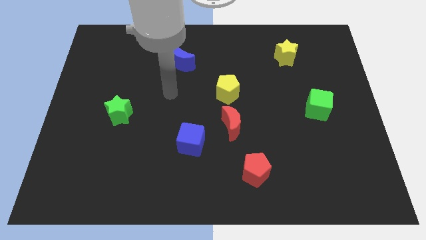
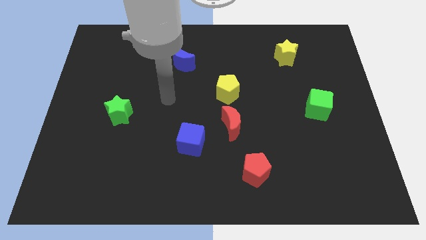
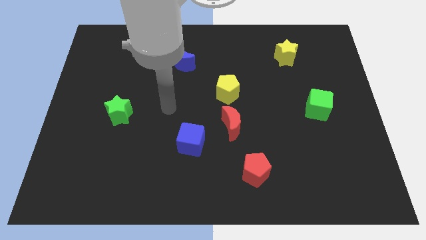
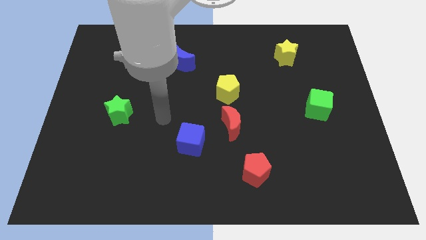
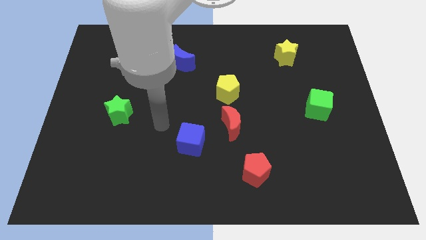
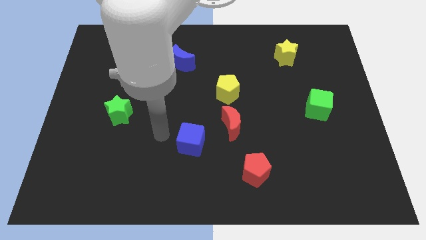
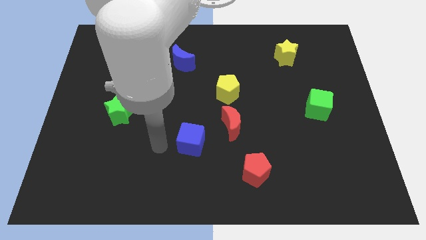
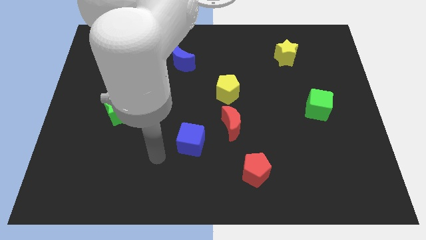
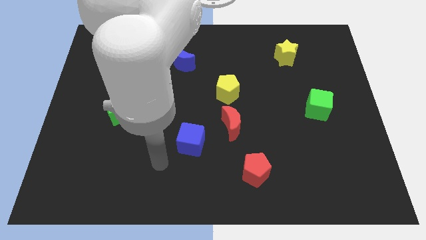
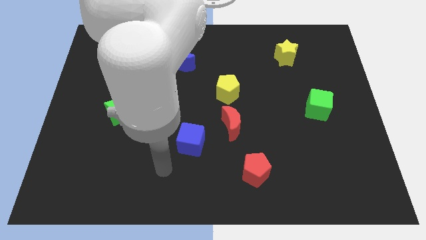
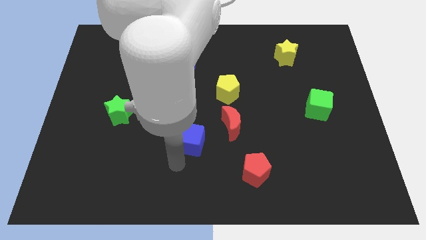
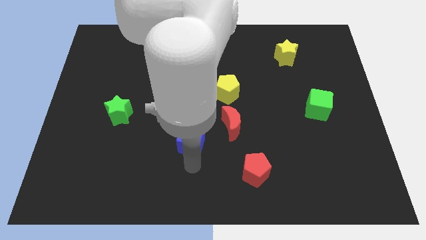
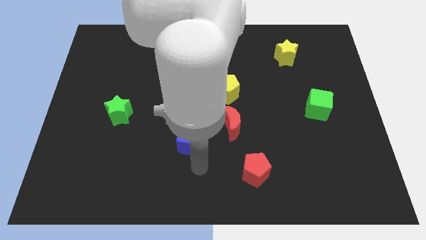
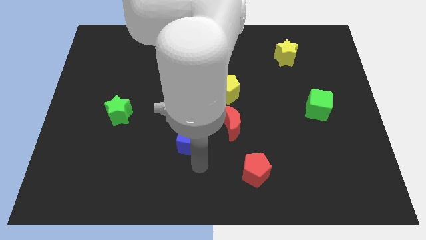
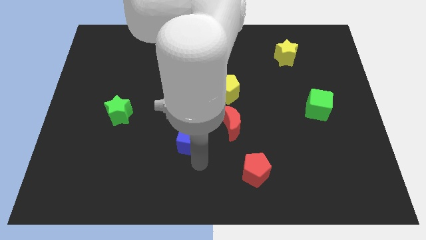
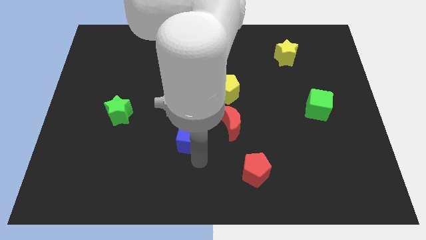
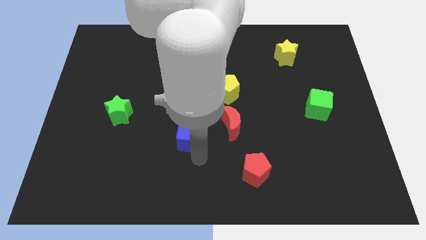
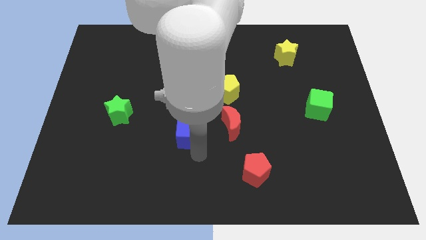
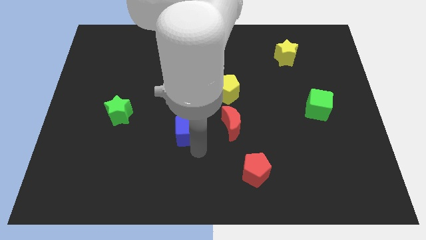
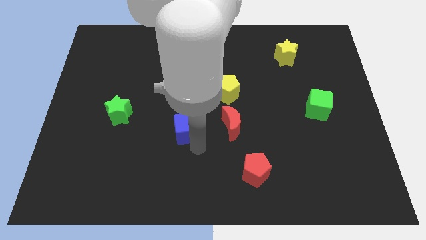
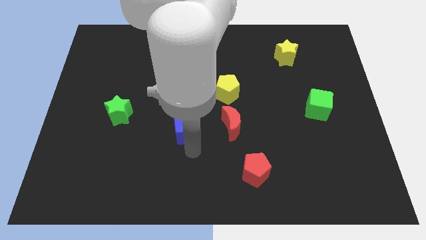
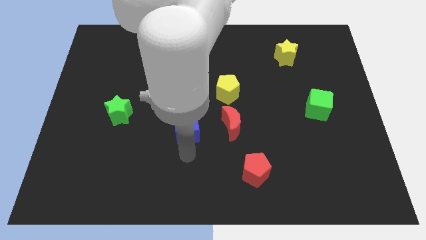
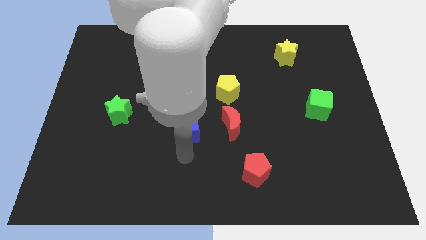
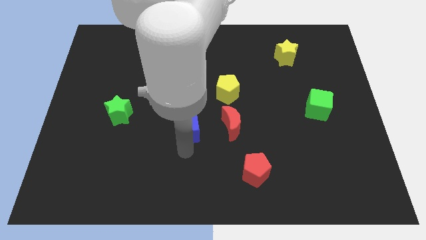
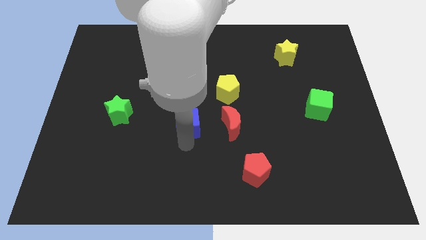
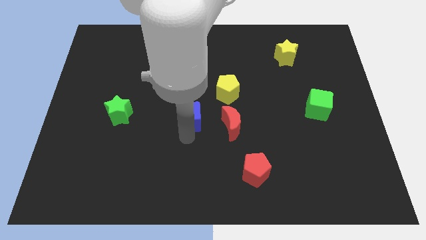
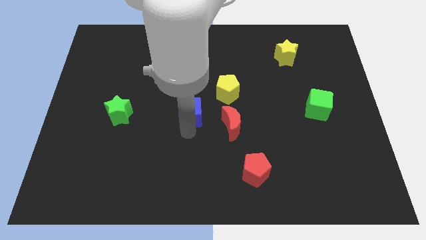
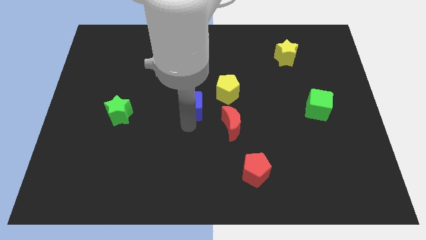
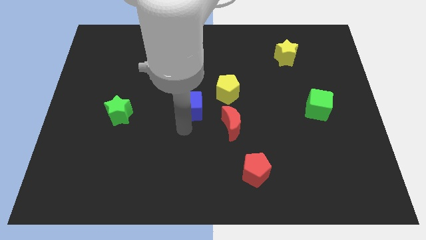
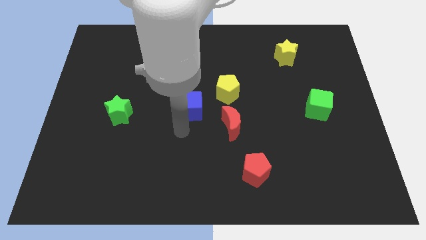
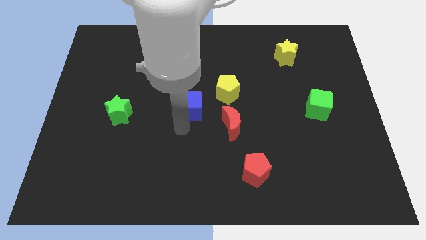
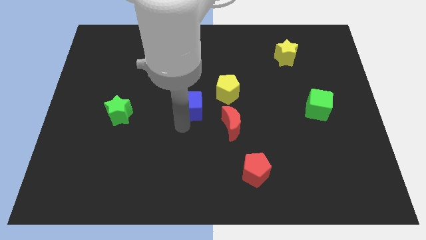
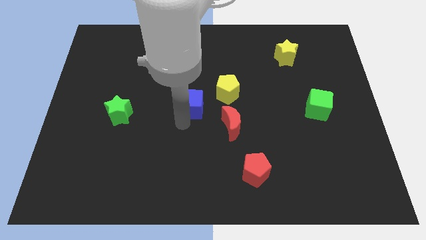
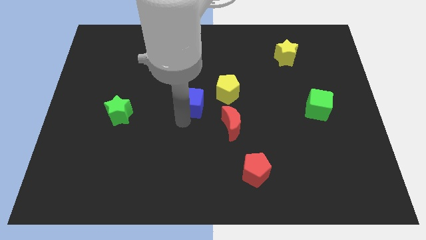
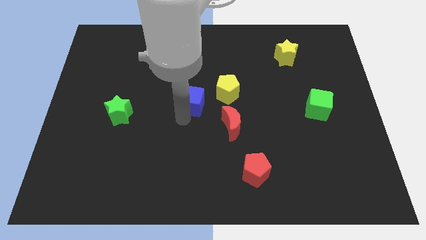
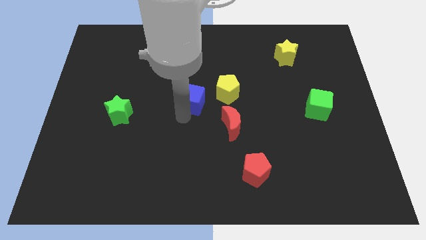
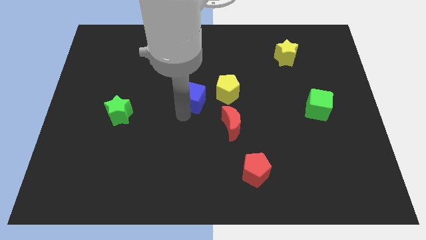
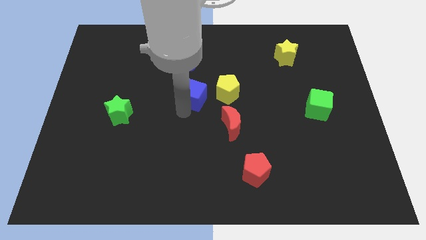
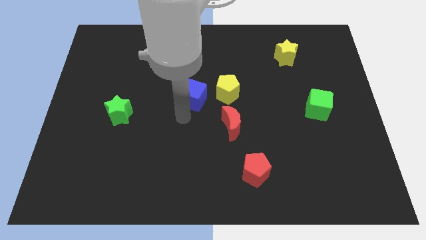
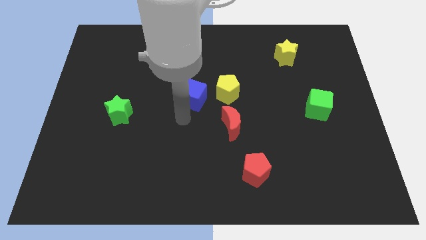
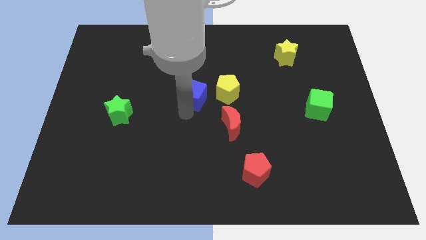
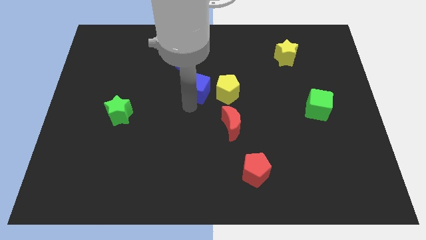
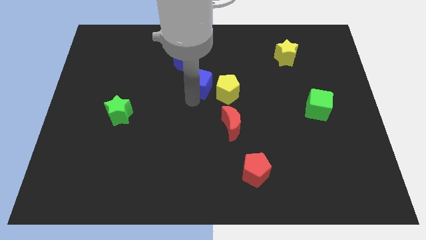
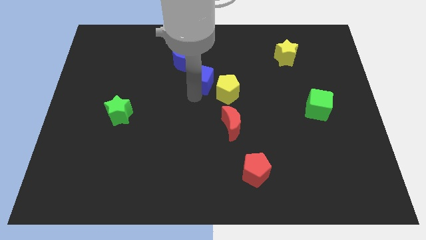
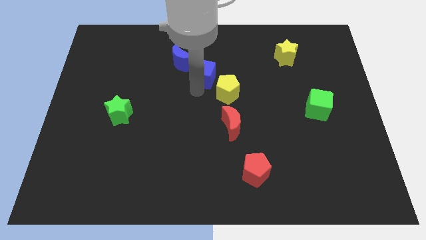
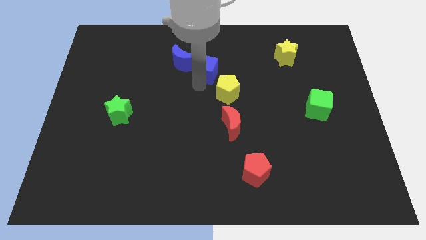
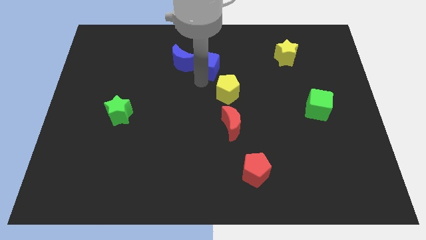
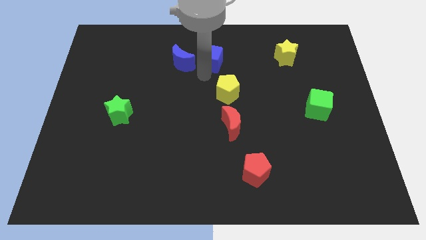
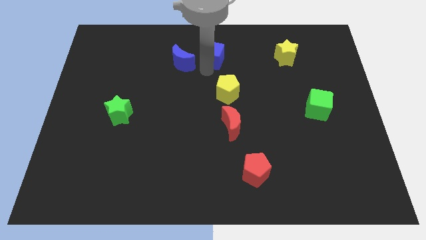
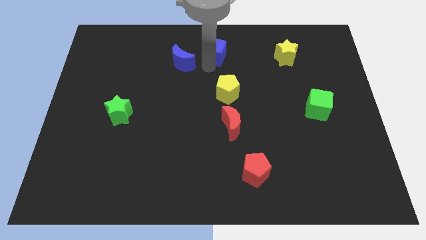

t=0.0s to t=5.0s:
move the blue cube to the towards your base

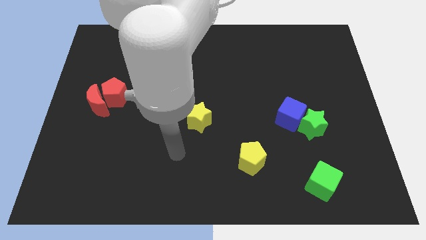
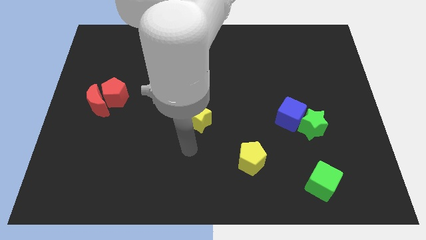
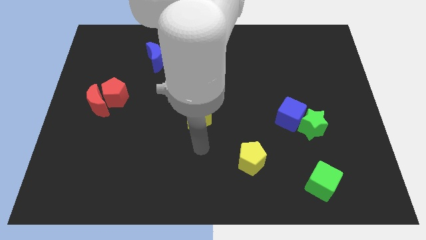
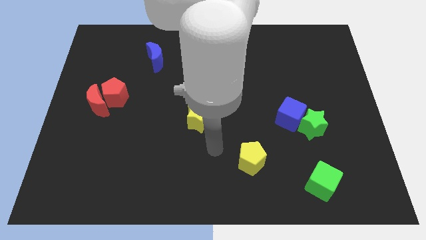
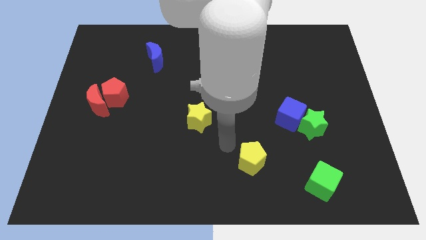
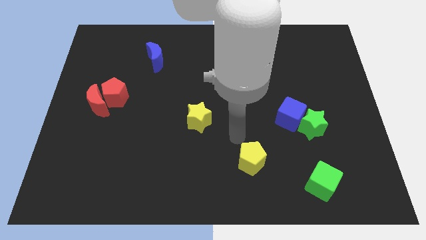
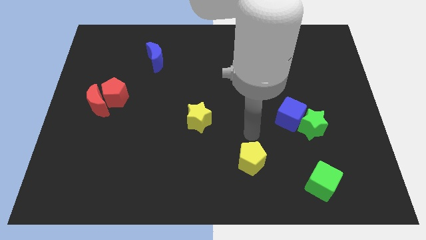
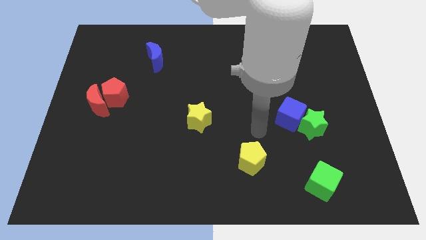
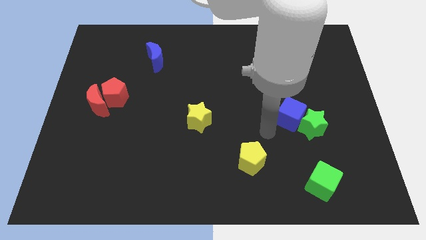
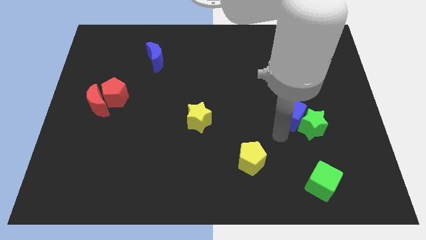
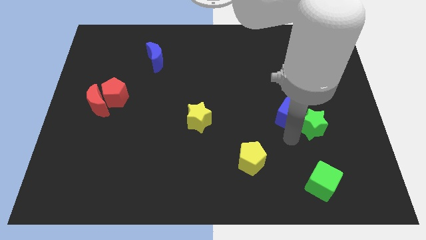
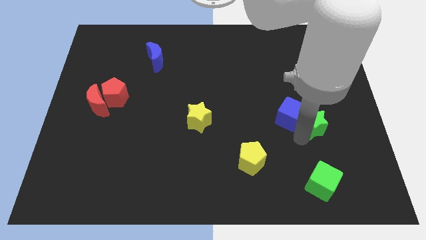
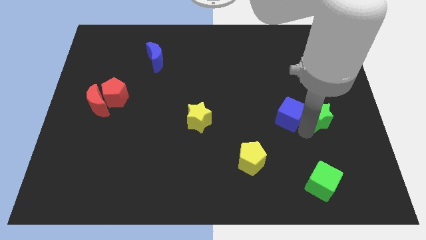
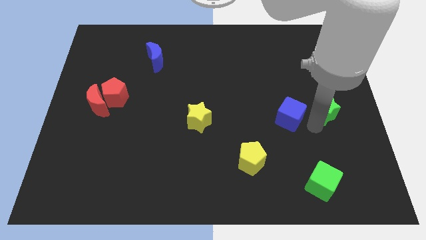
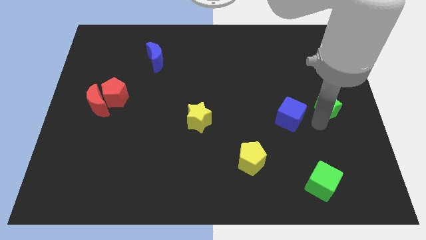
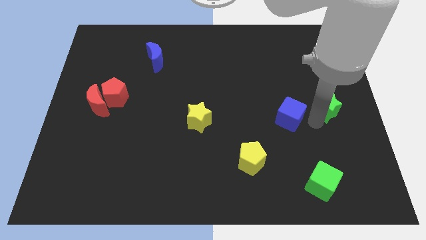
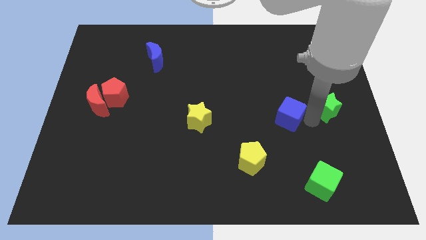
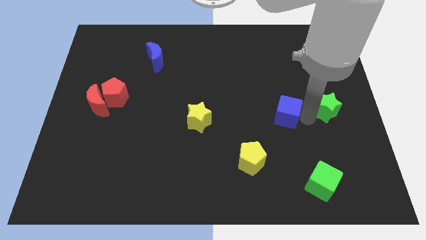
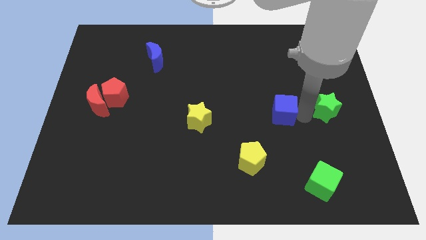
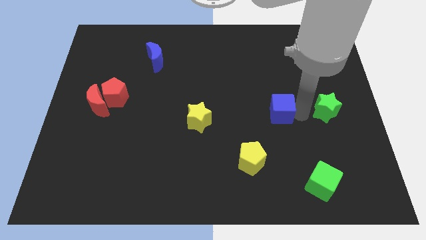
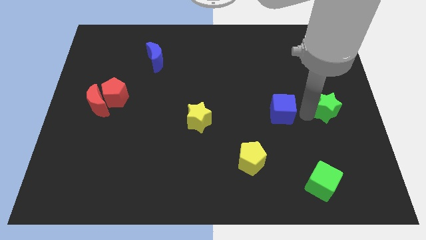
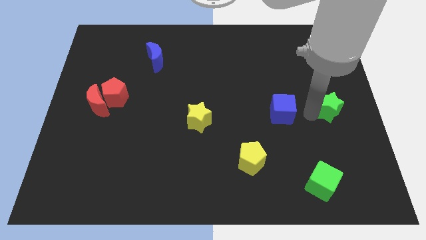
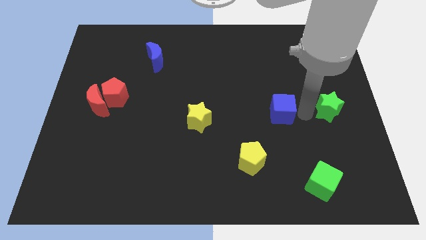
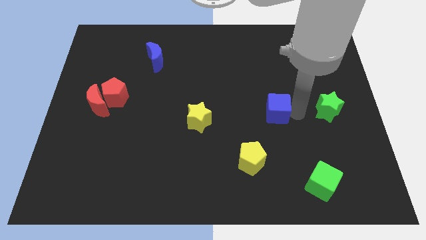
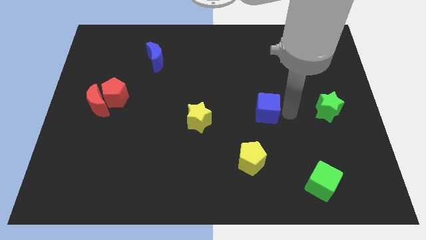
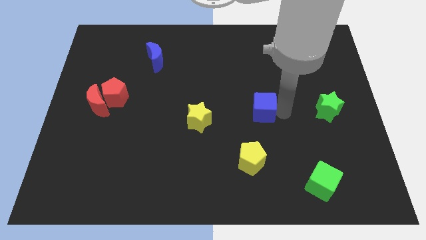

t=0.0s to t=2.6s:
push the blue cube to the center

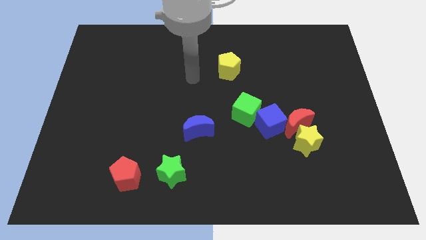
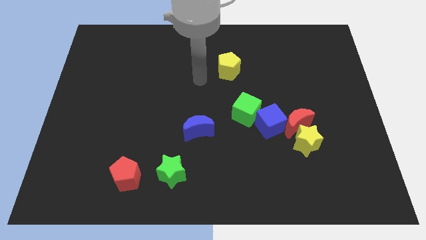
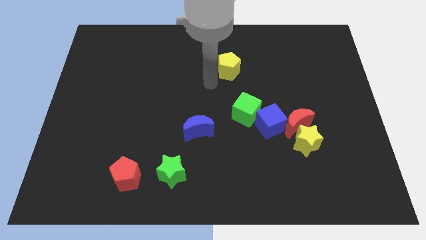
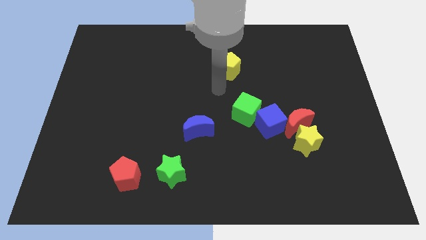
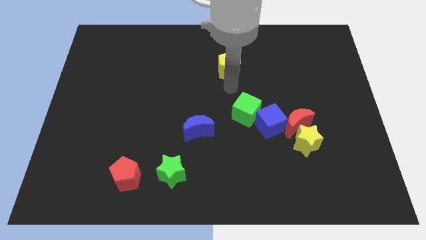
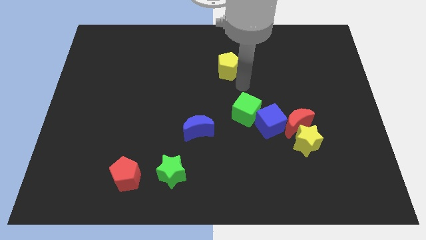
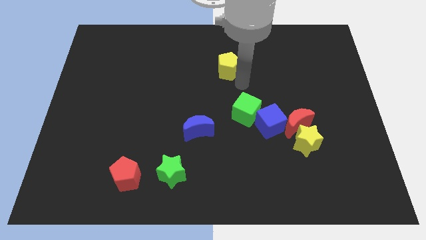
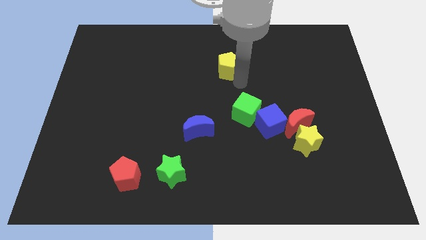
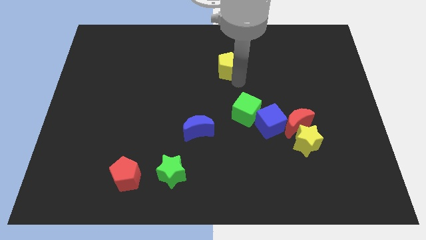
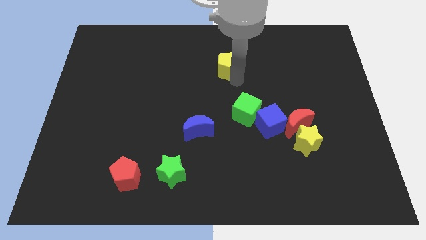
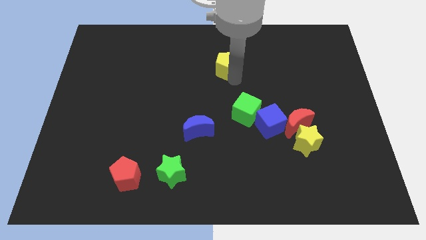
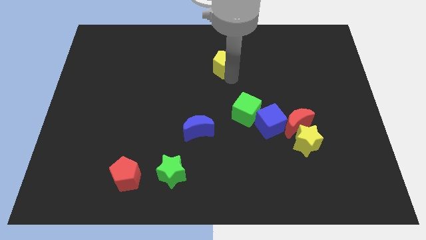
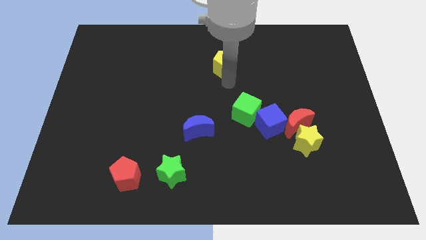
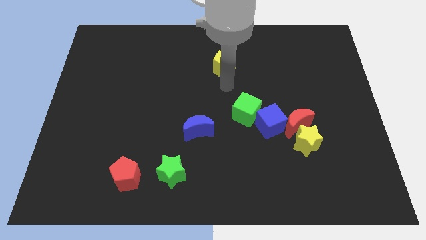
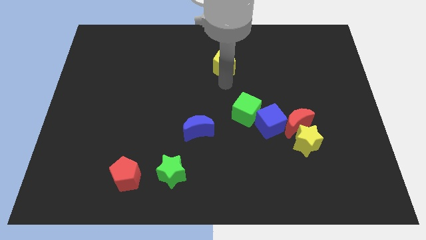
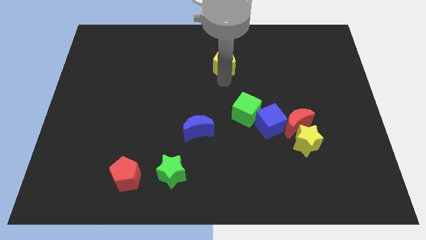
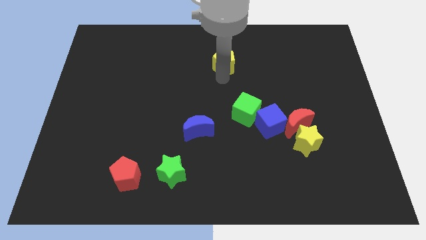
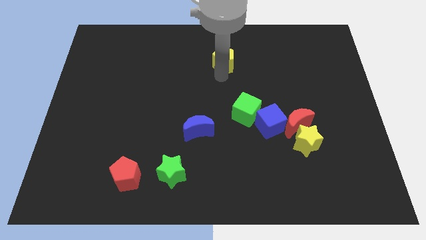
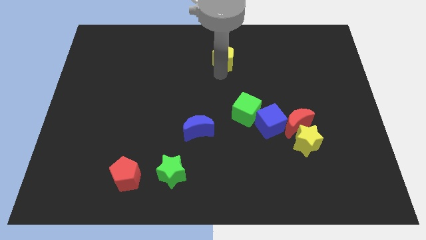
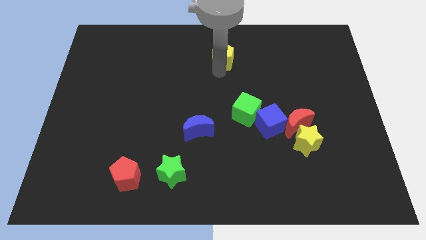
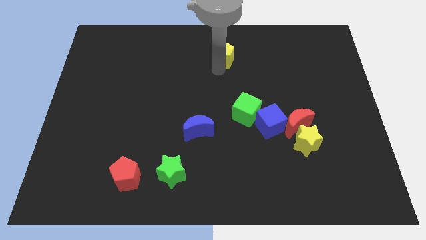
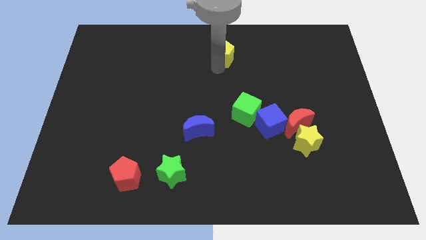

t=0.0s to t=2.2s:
move the yellow pentagon to the top
